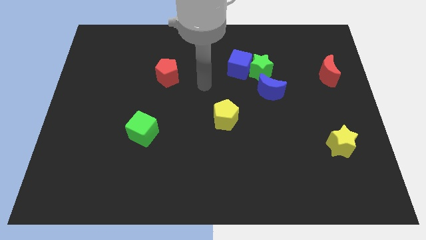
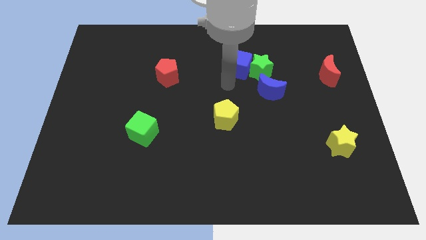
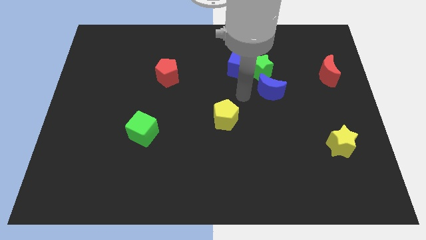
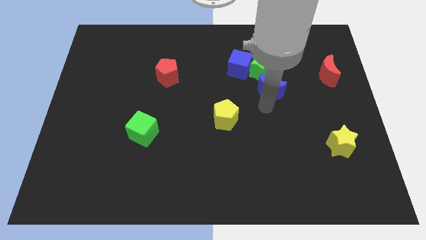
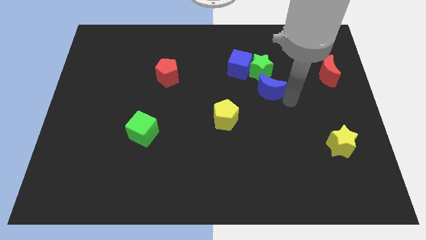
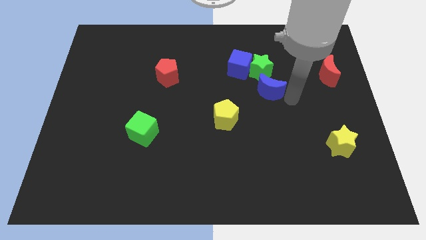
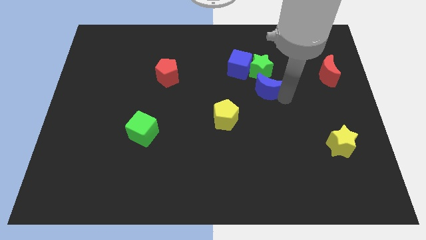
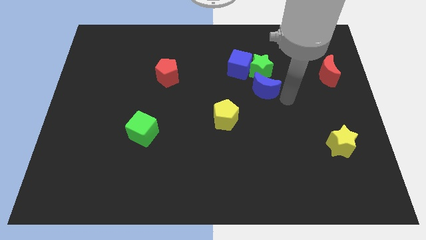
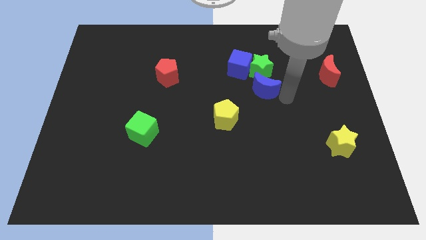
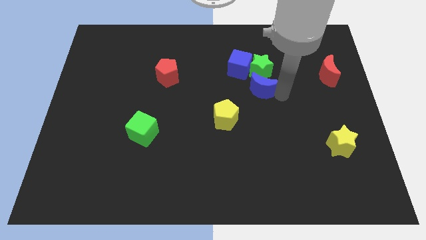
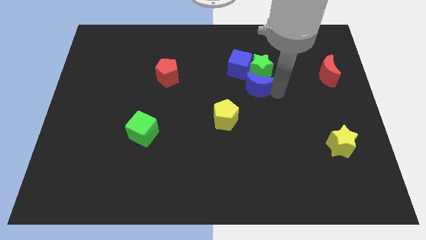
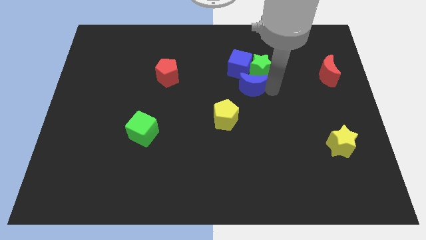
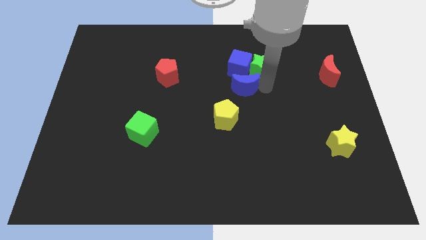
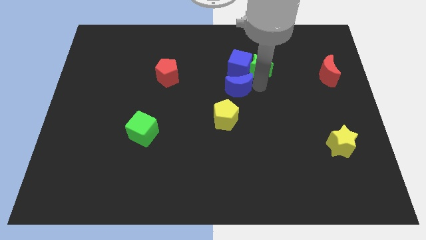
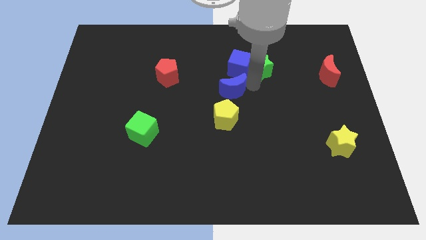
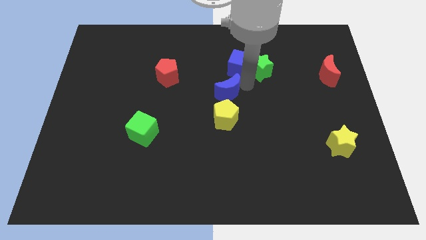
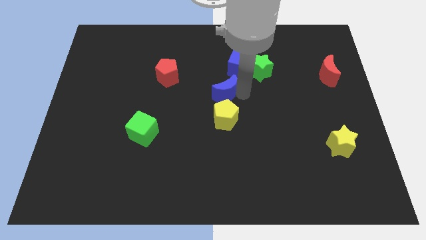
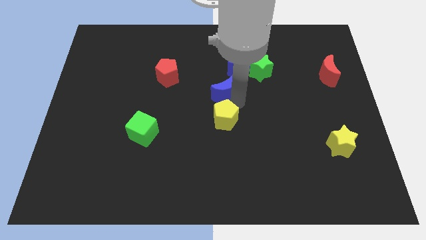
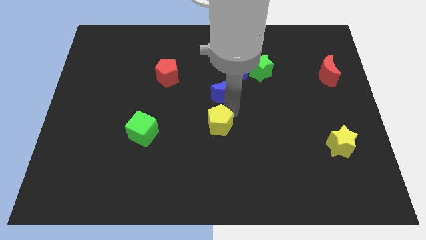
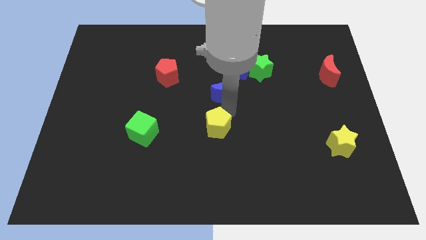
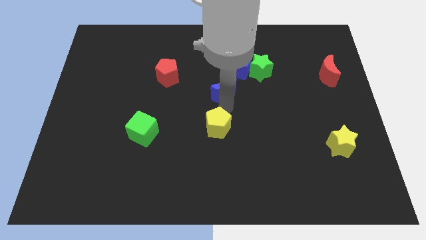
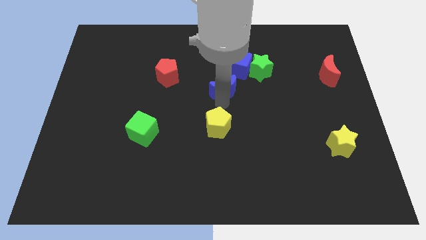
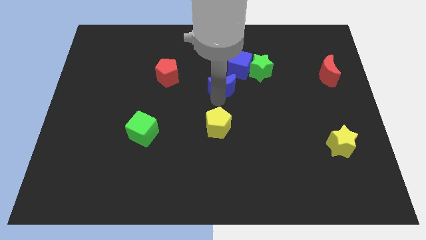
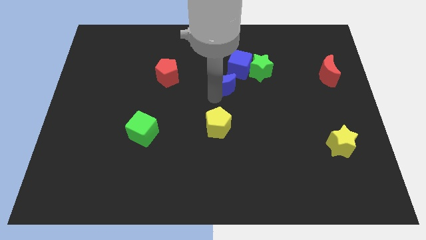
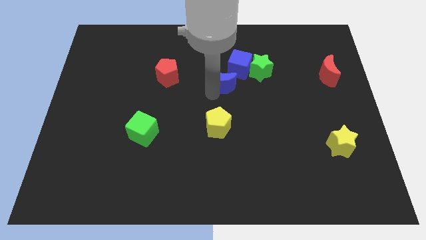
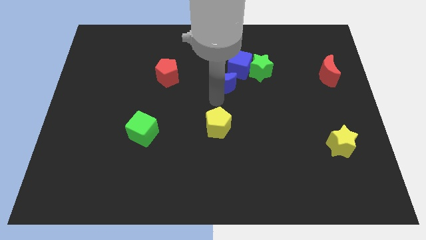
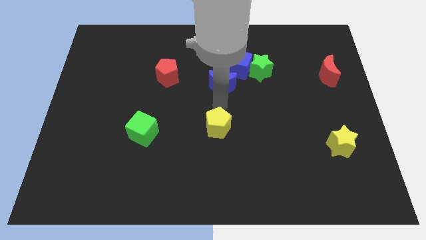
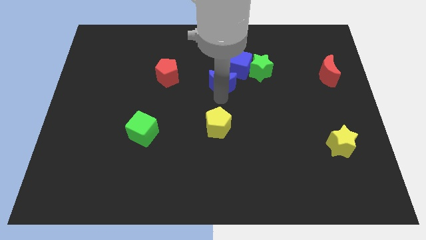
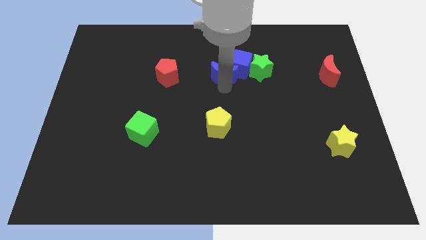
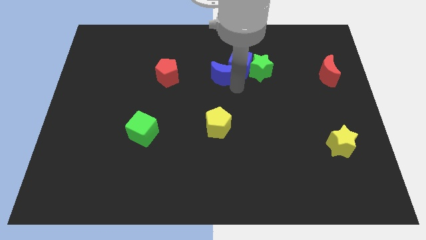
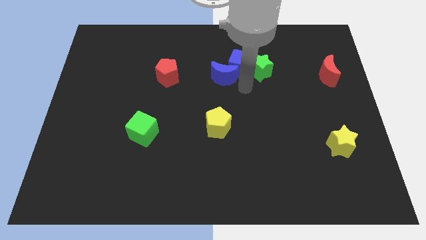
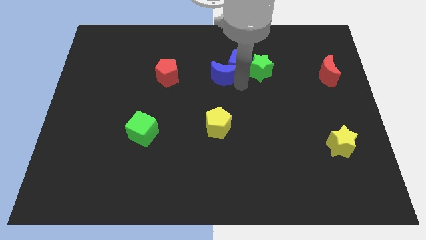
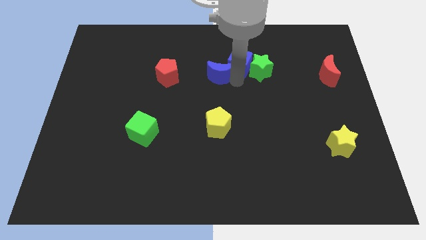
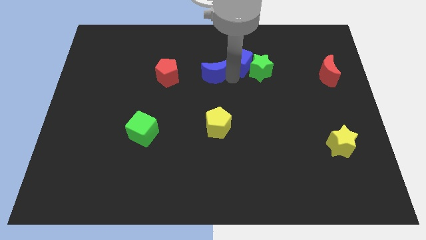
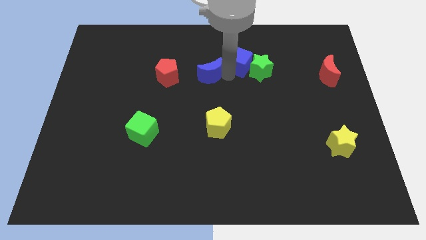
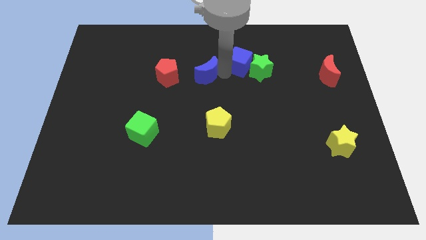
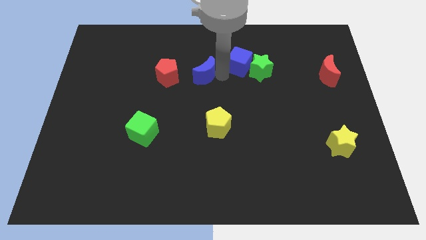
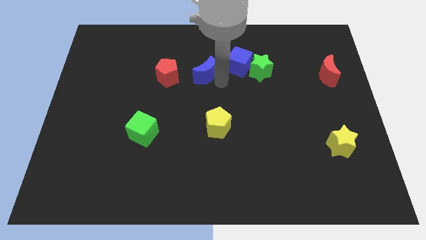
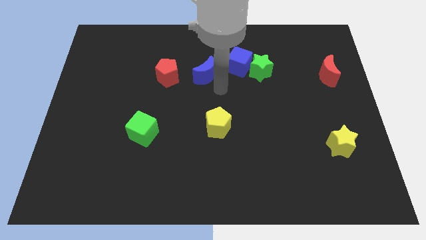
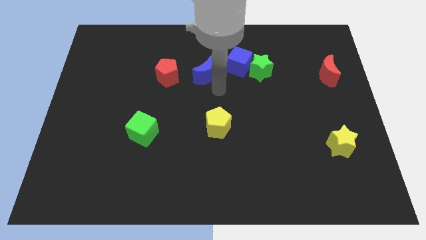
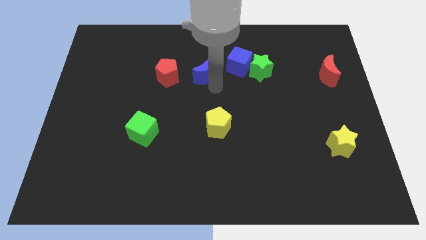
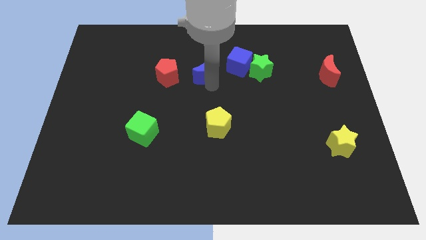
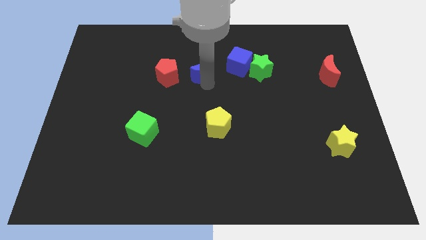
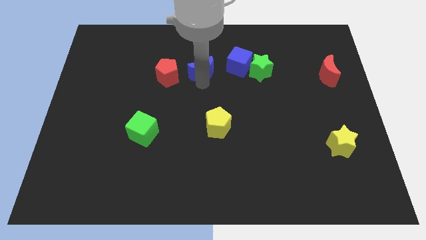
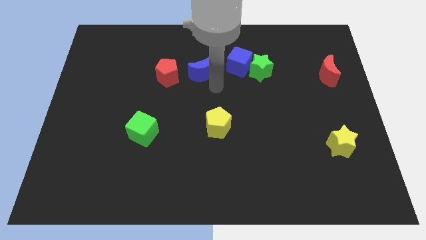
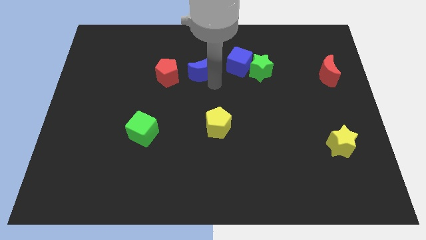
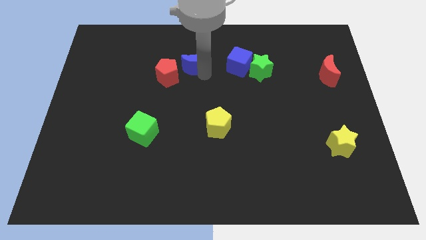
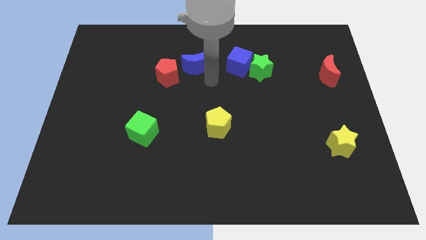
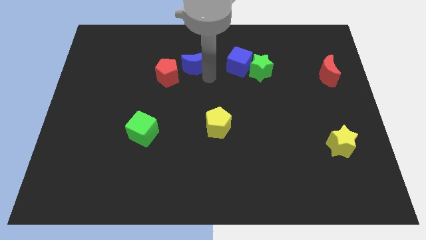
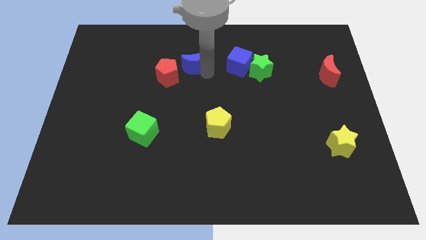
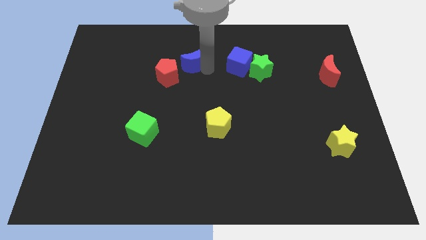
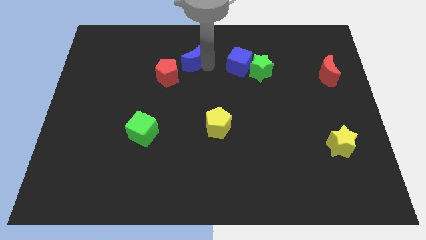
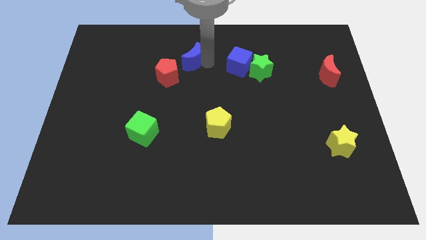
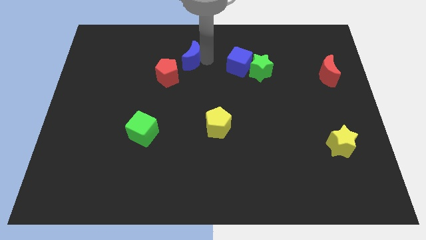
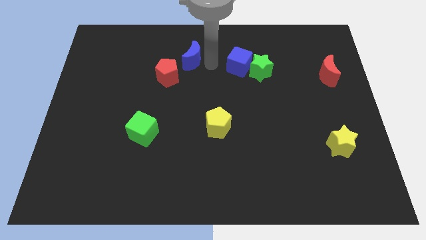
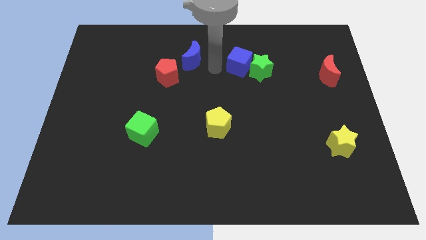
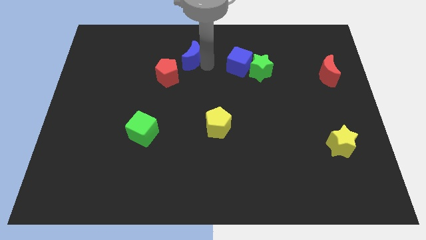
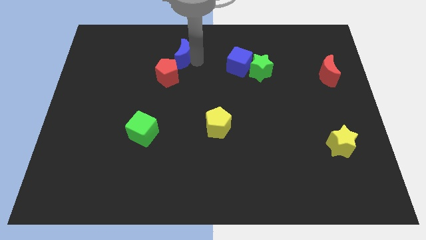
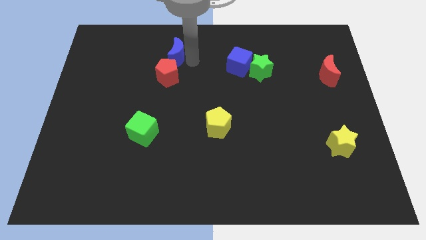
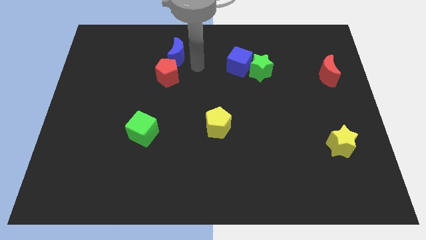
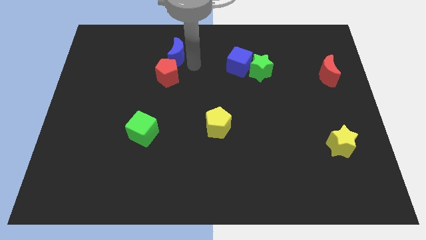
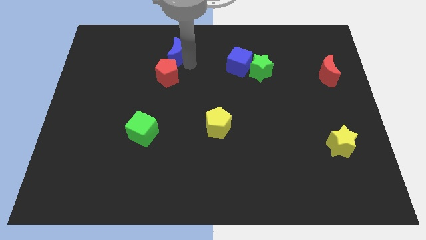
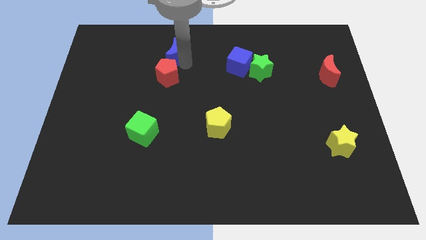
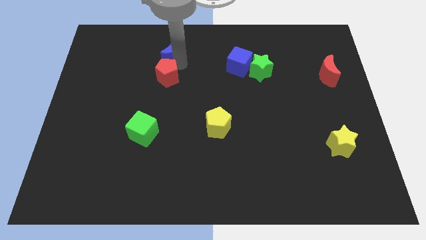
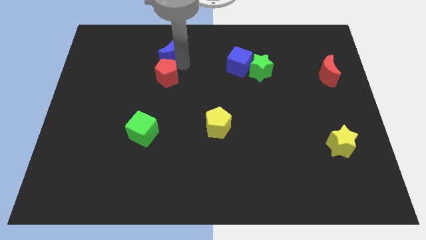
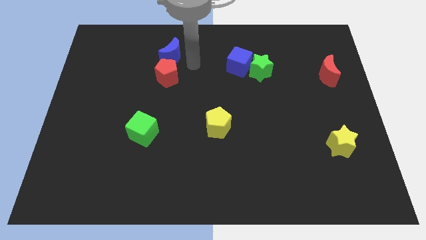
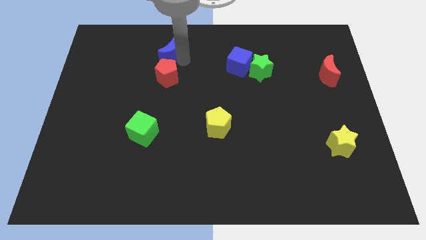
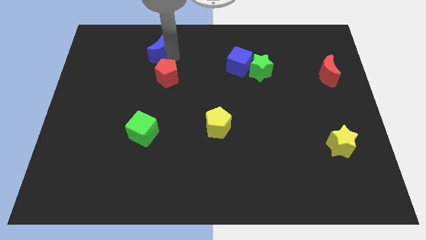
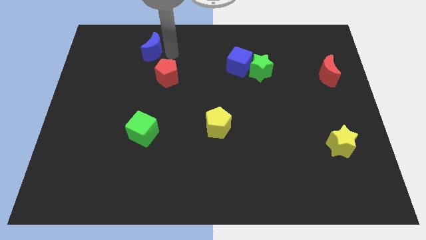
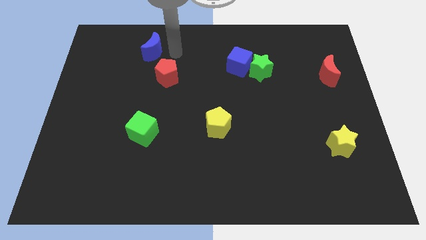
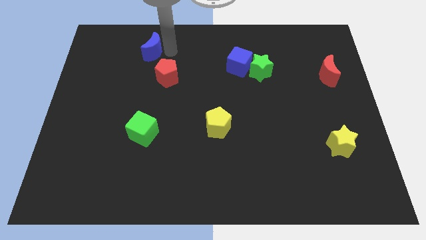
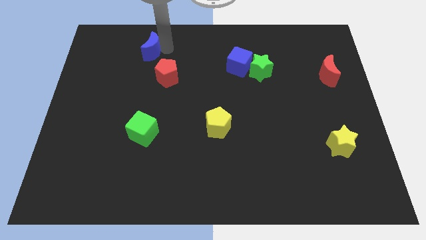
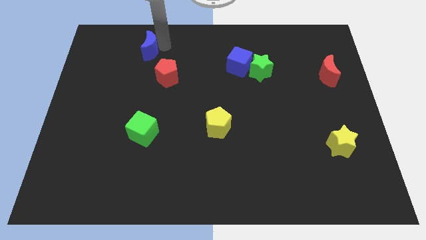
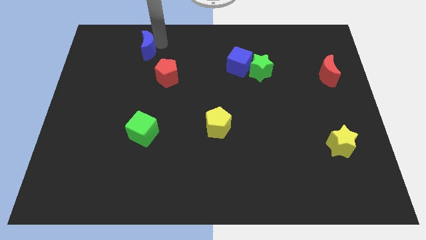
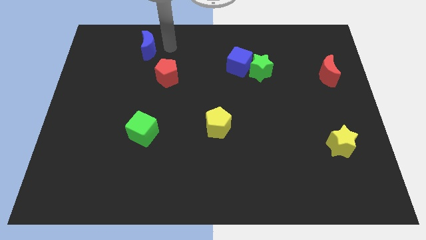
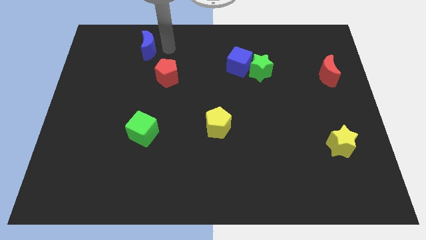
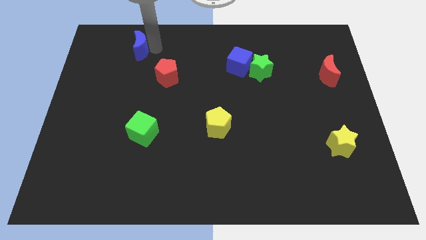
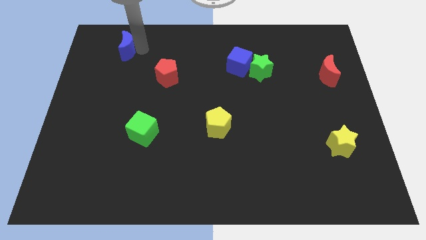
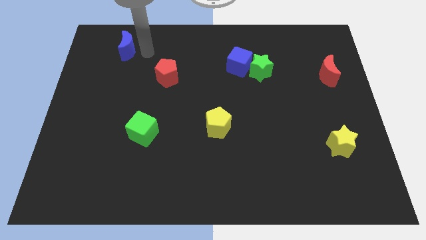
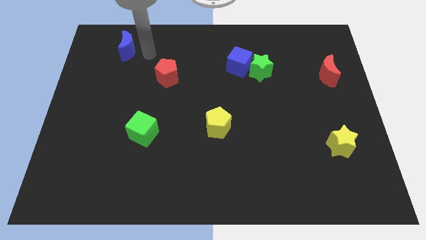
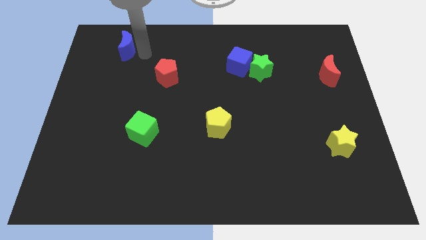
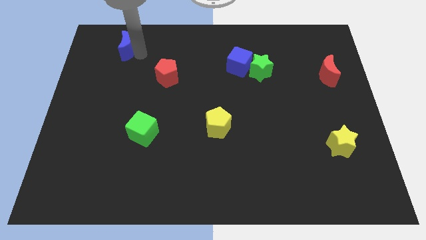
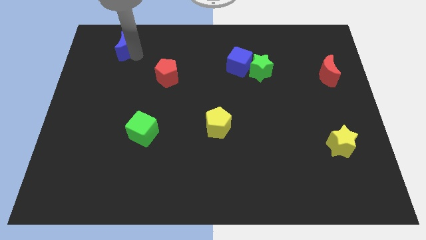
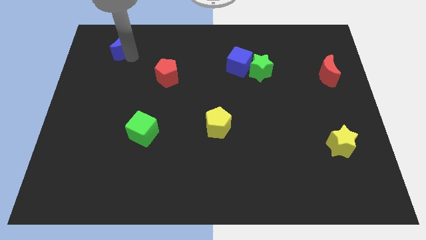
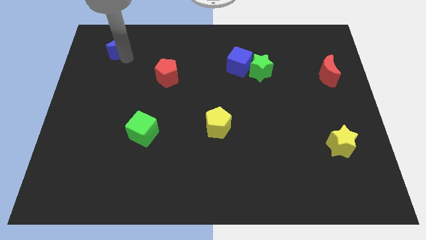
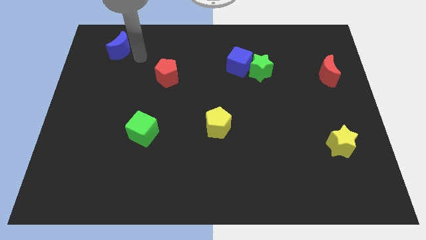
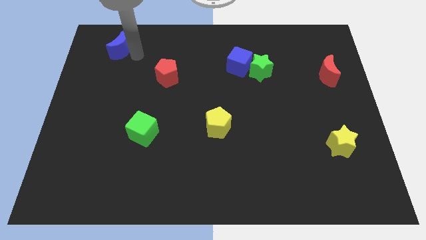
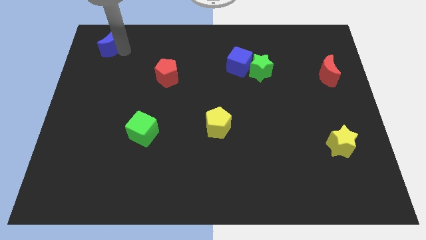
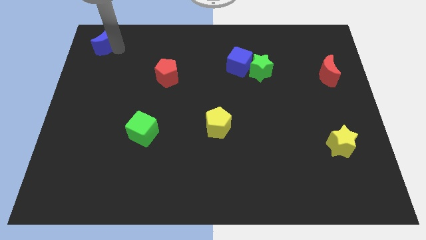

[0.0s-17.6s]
move the blue moon to the top left
